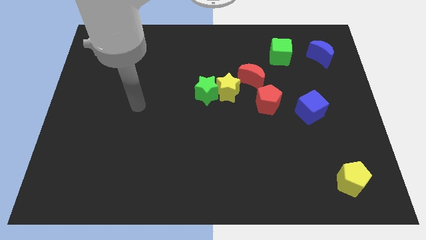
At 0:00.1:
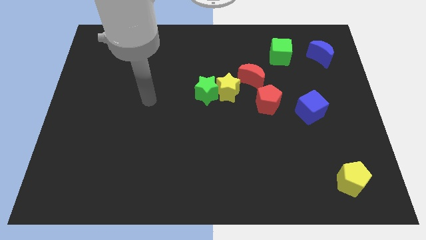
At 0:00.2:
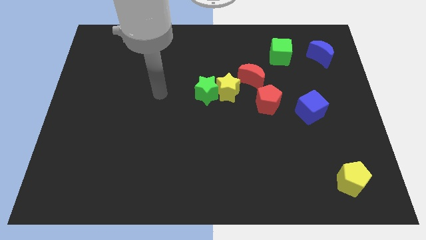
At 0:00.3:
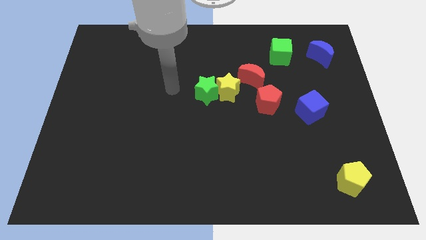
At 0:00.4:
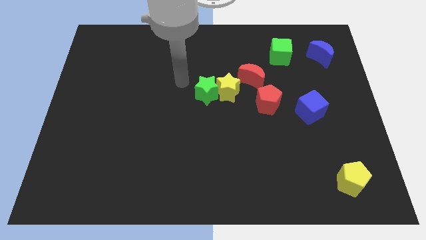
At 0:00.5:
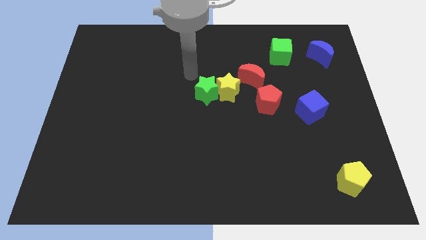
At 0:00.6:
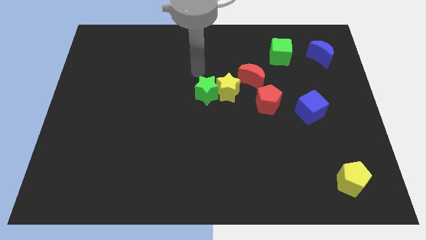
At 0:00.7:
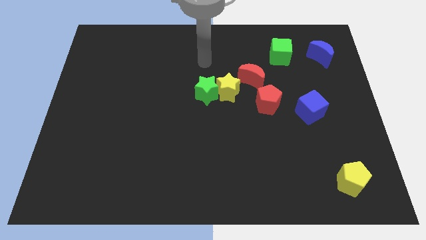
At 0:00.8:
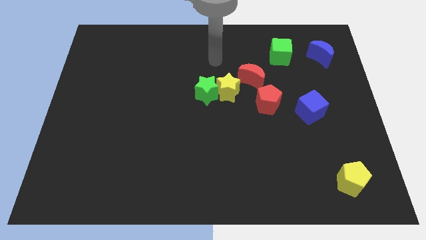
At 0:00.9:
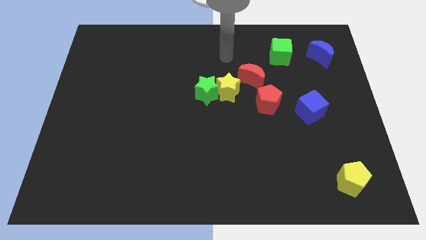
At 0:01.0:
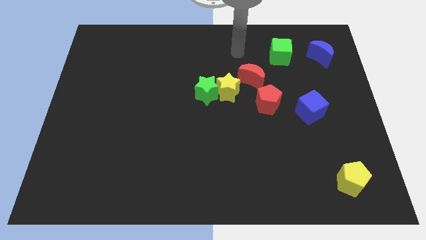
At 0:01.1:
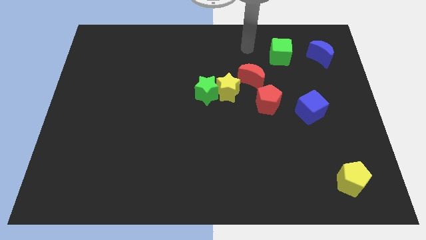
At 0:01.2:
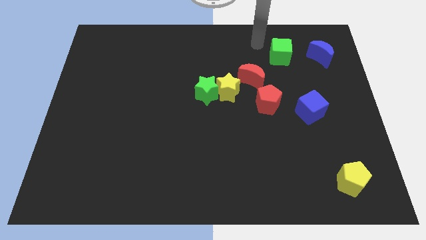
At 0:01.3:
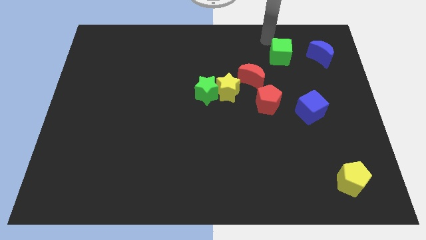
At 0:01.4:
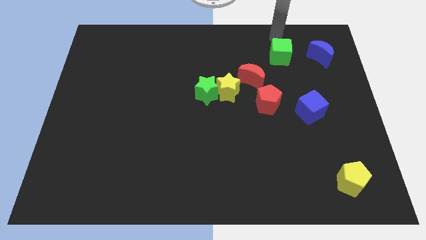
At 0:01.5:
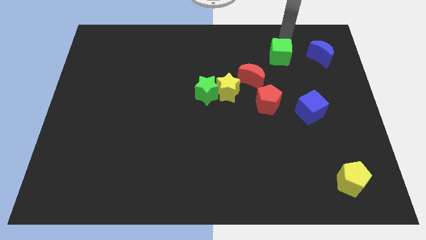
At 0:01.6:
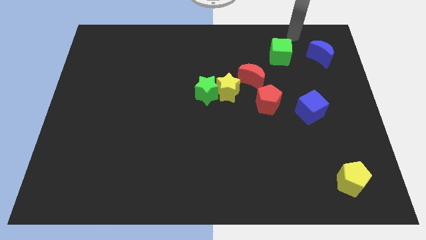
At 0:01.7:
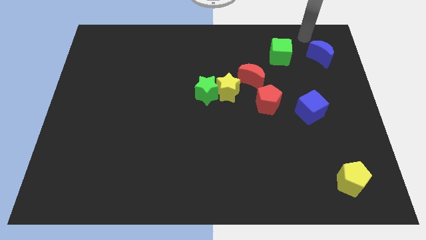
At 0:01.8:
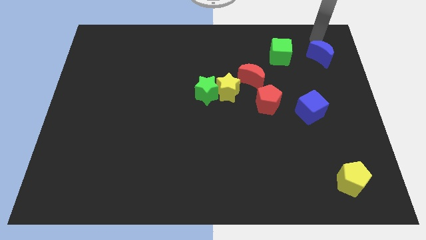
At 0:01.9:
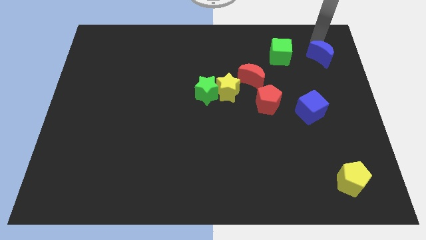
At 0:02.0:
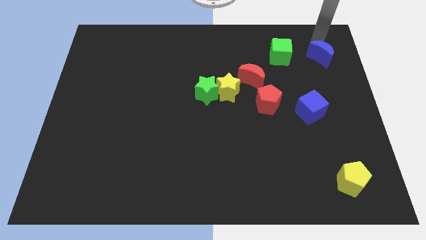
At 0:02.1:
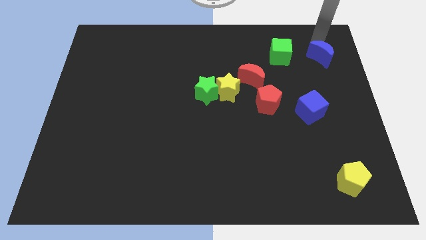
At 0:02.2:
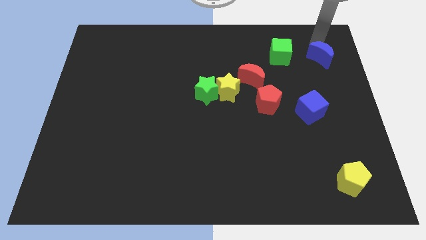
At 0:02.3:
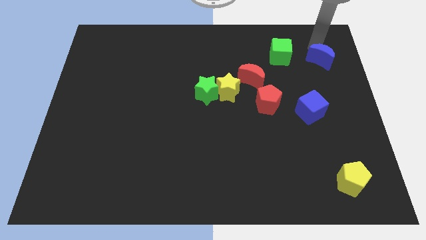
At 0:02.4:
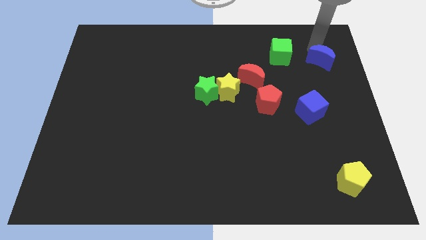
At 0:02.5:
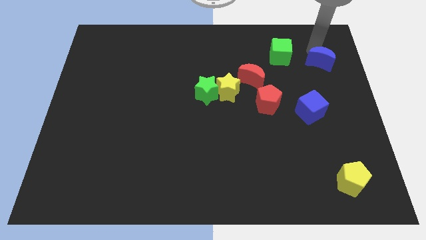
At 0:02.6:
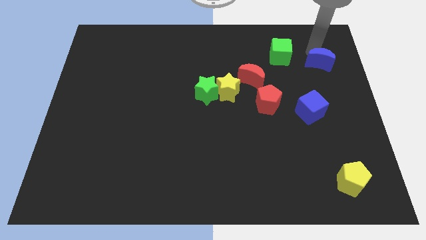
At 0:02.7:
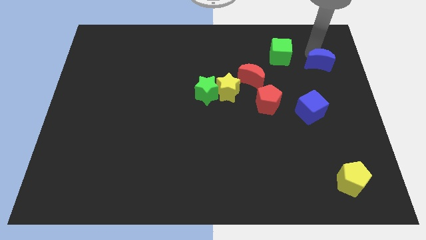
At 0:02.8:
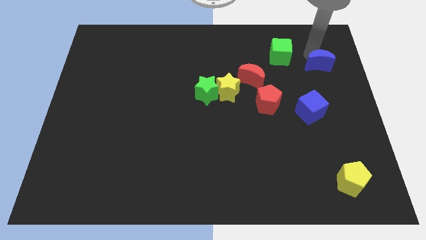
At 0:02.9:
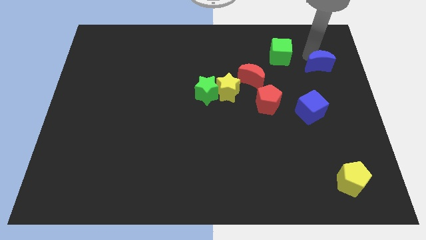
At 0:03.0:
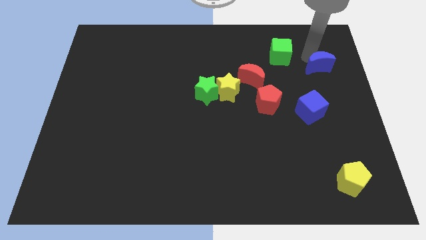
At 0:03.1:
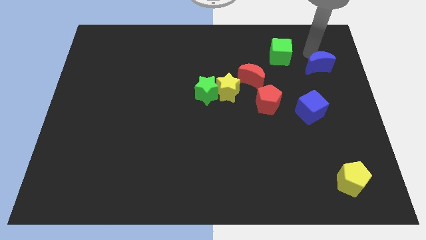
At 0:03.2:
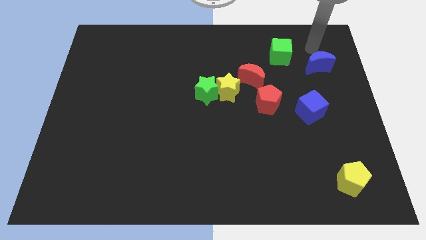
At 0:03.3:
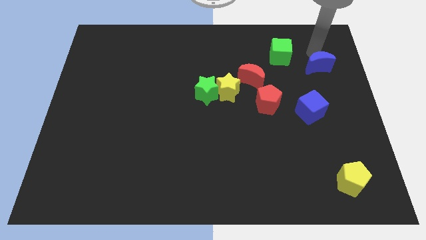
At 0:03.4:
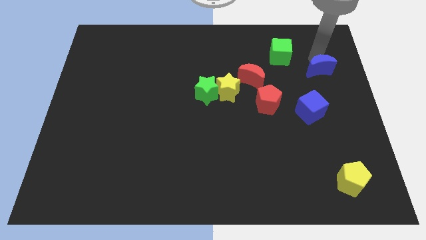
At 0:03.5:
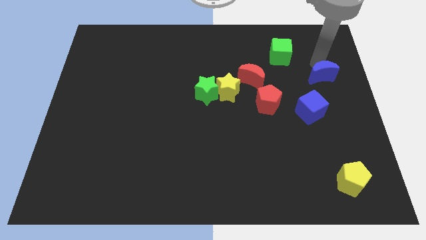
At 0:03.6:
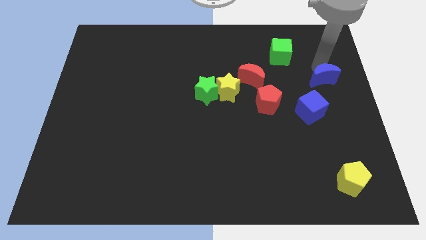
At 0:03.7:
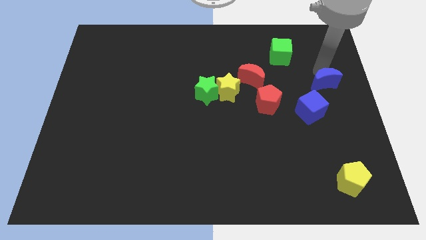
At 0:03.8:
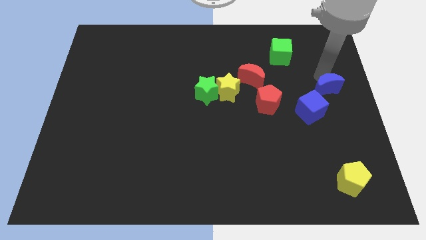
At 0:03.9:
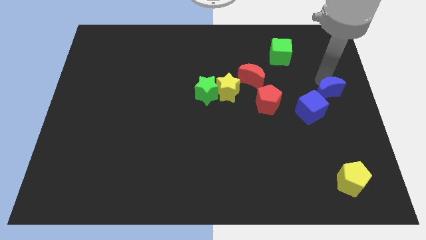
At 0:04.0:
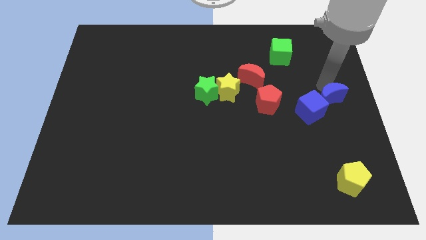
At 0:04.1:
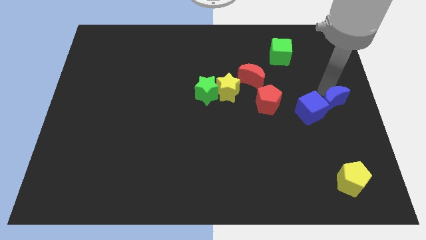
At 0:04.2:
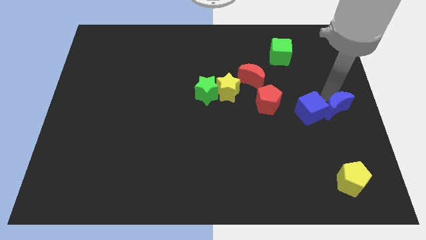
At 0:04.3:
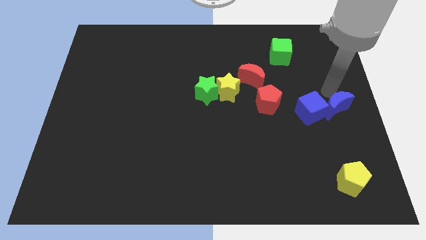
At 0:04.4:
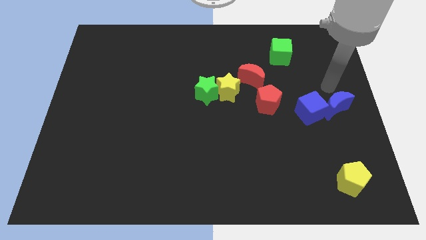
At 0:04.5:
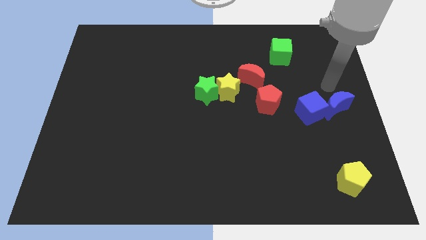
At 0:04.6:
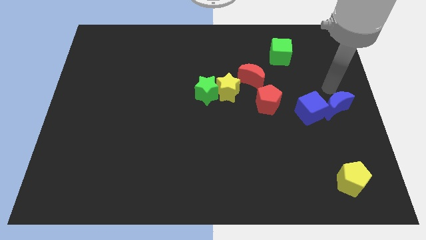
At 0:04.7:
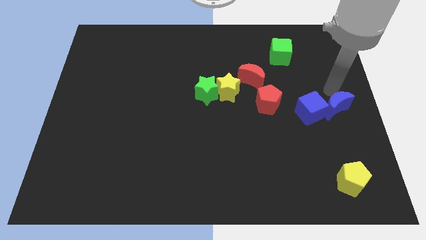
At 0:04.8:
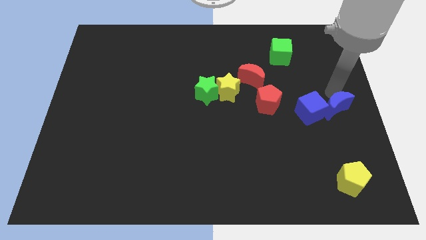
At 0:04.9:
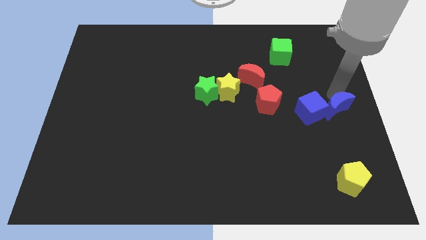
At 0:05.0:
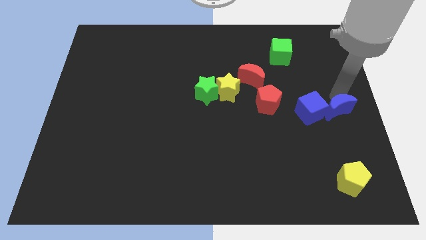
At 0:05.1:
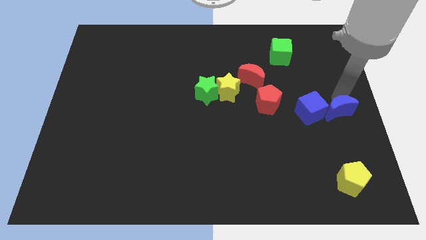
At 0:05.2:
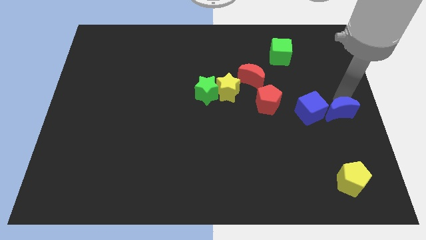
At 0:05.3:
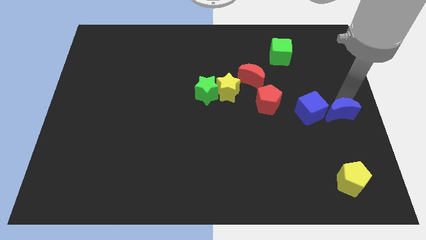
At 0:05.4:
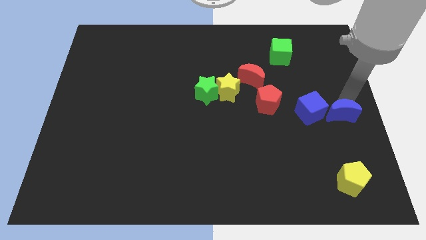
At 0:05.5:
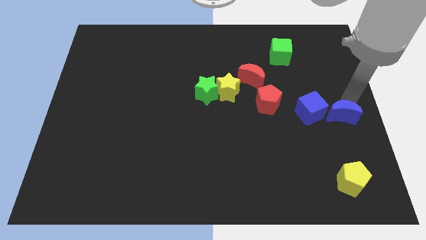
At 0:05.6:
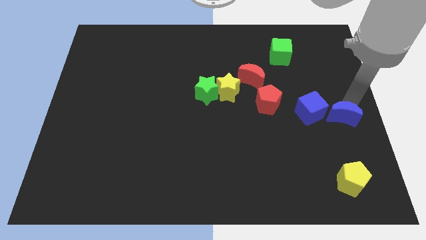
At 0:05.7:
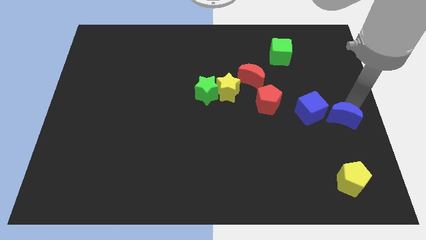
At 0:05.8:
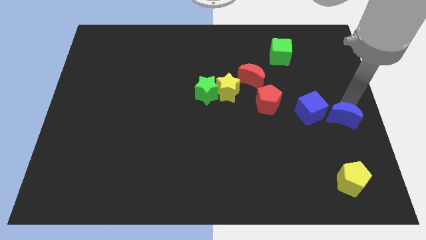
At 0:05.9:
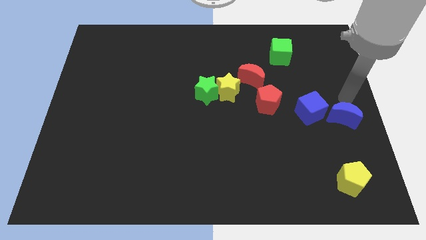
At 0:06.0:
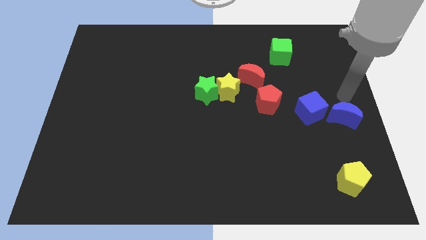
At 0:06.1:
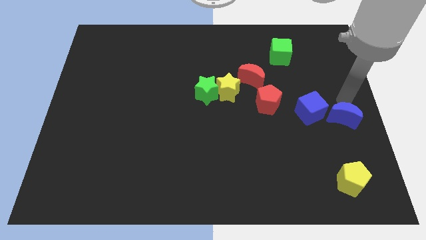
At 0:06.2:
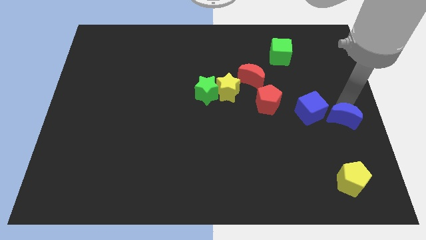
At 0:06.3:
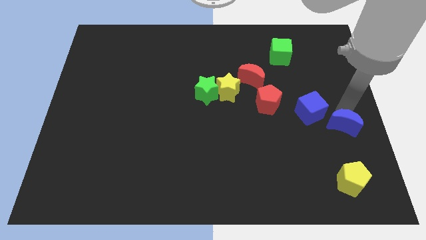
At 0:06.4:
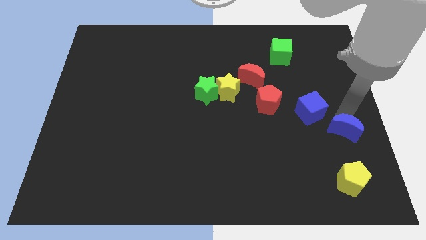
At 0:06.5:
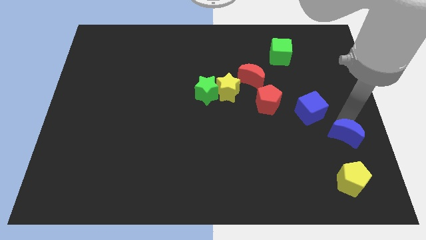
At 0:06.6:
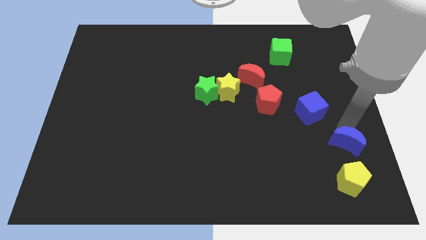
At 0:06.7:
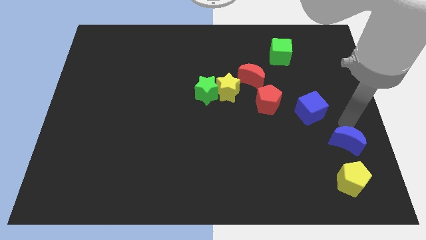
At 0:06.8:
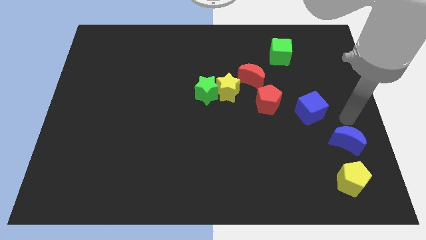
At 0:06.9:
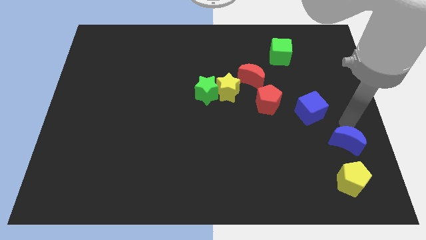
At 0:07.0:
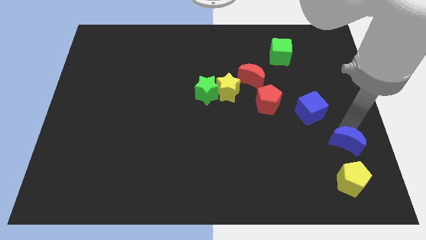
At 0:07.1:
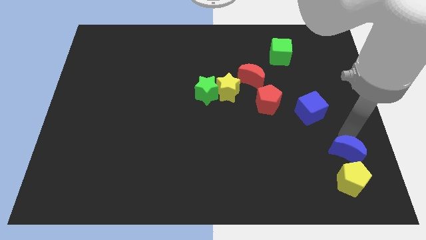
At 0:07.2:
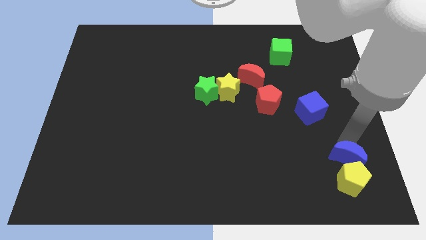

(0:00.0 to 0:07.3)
put the blue moon next to the yellow pentagon

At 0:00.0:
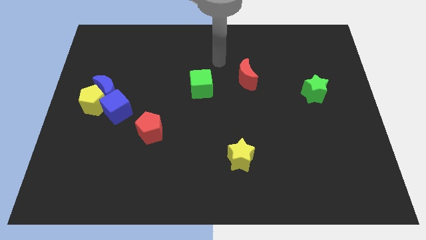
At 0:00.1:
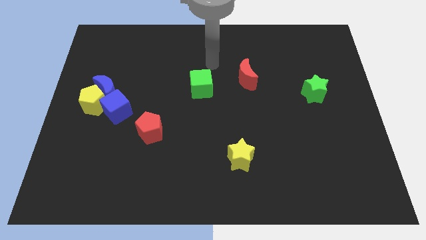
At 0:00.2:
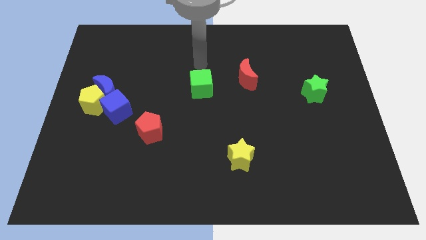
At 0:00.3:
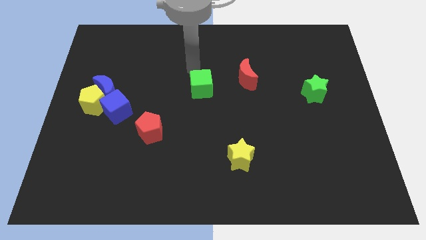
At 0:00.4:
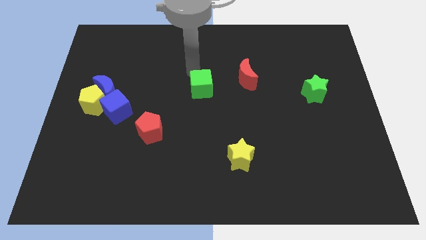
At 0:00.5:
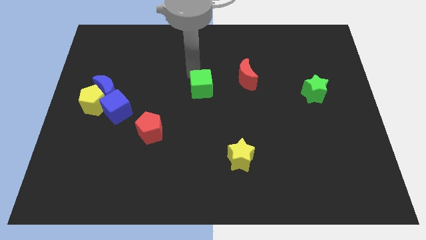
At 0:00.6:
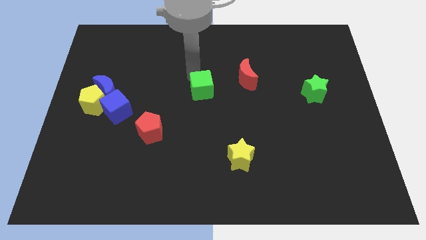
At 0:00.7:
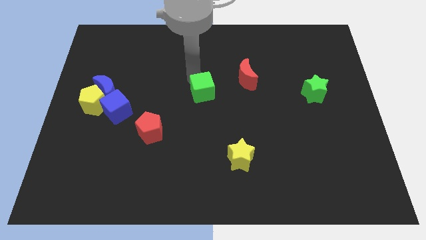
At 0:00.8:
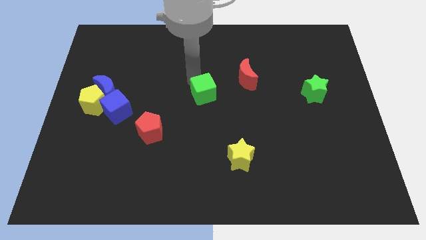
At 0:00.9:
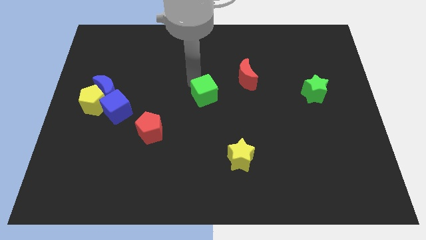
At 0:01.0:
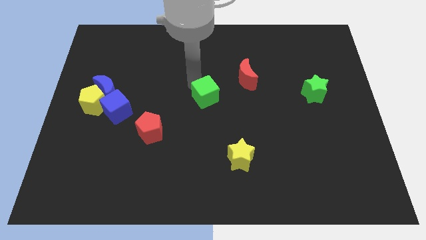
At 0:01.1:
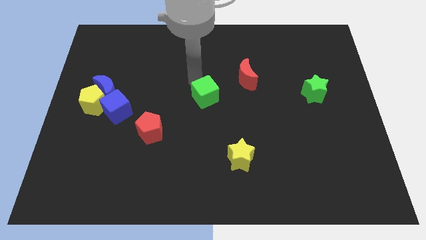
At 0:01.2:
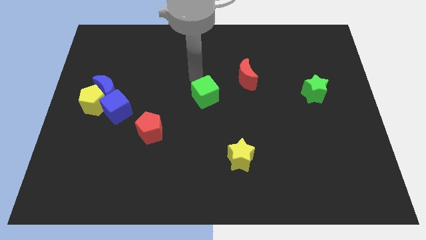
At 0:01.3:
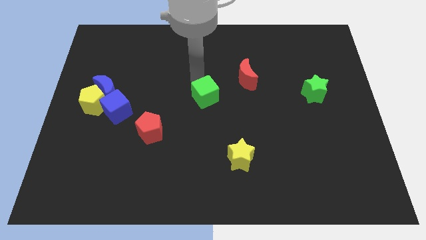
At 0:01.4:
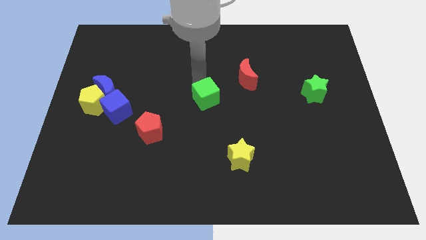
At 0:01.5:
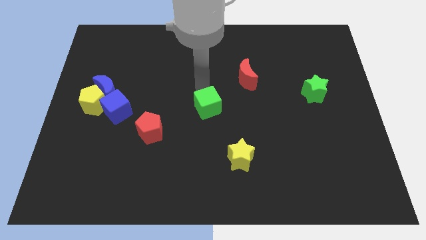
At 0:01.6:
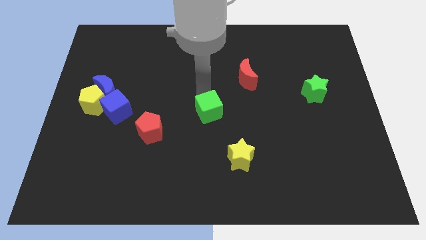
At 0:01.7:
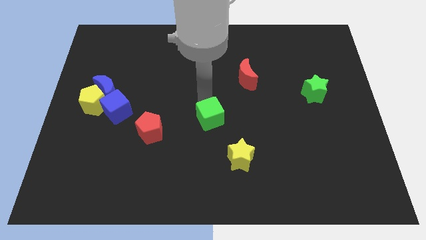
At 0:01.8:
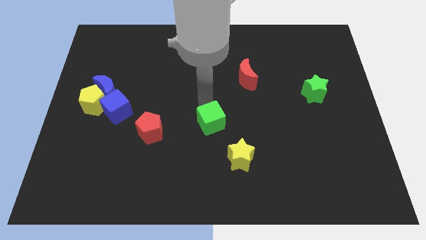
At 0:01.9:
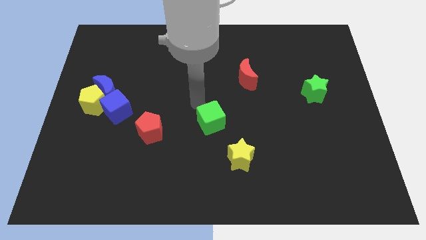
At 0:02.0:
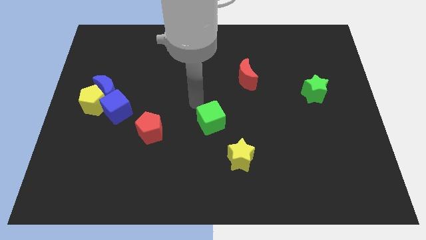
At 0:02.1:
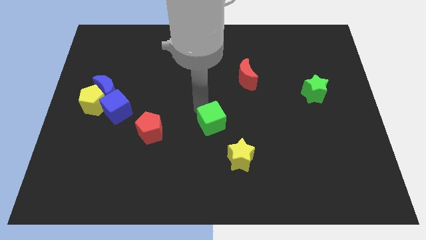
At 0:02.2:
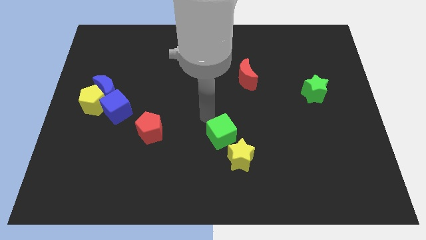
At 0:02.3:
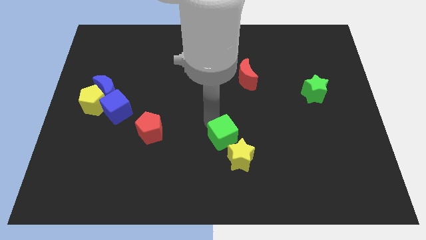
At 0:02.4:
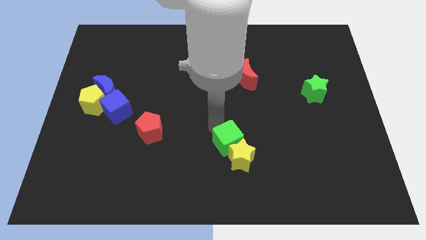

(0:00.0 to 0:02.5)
slide the green cube towards the yellow star
